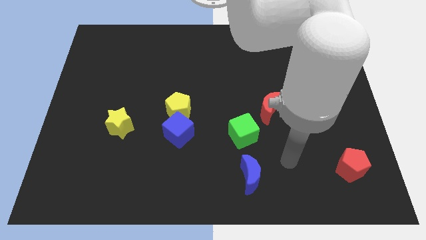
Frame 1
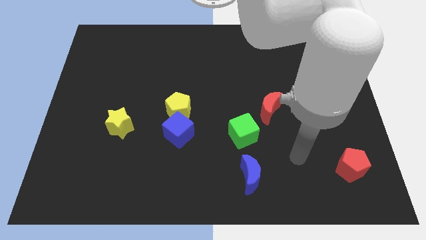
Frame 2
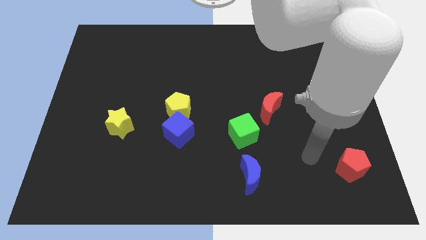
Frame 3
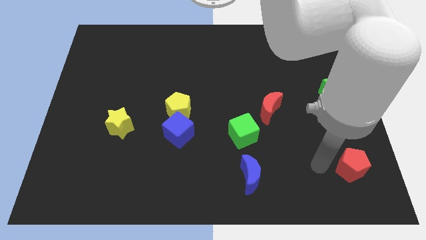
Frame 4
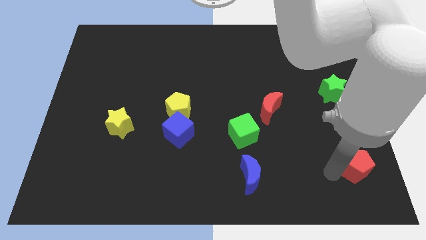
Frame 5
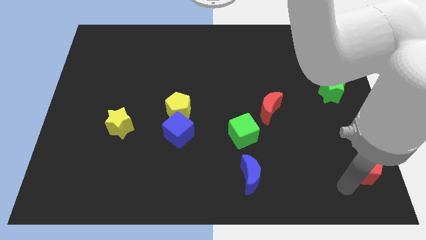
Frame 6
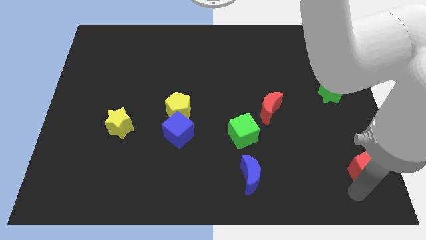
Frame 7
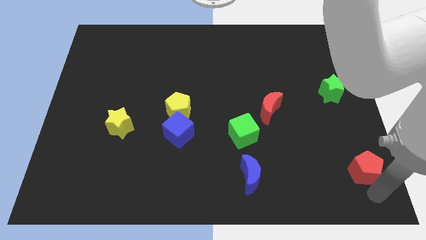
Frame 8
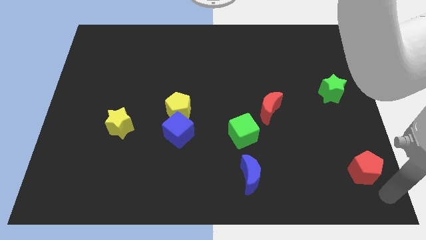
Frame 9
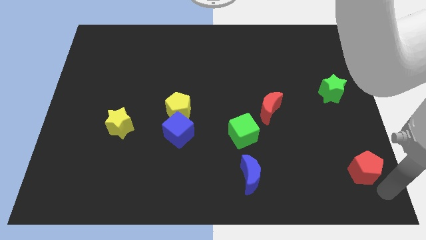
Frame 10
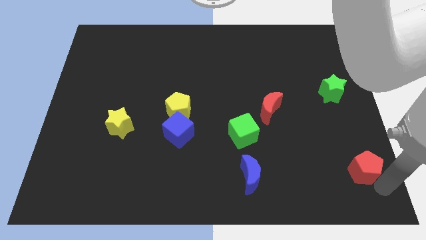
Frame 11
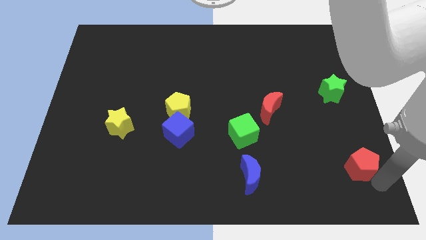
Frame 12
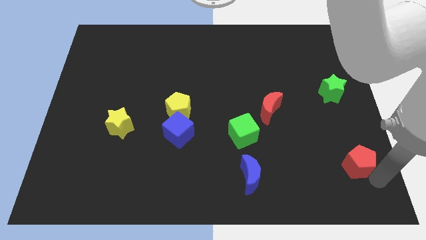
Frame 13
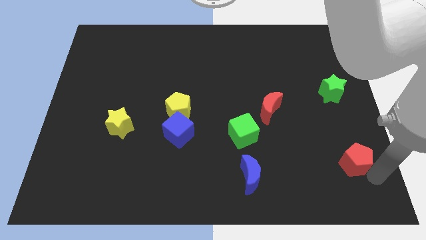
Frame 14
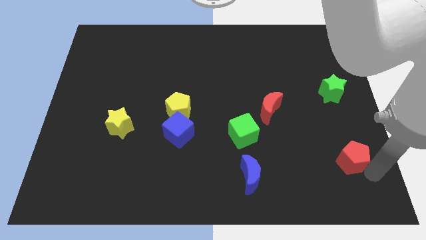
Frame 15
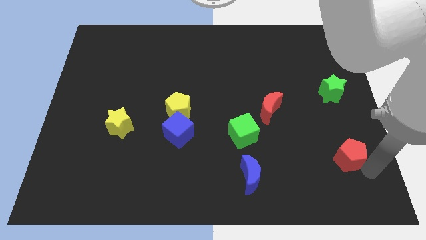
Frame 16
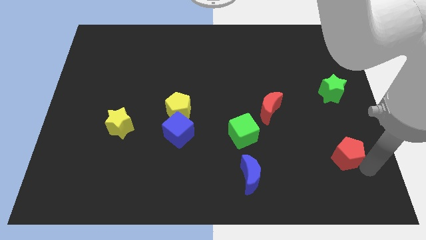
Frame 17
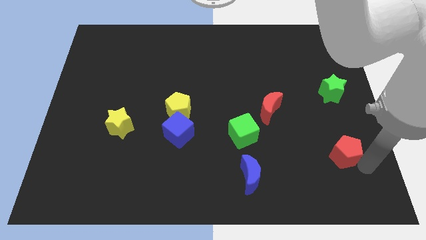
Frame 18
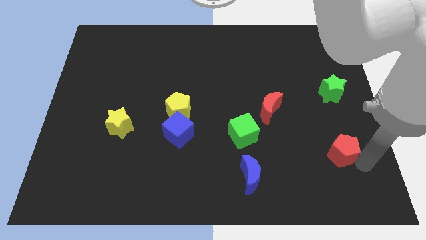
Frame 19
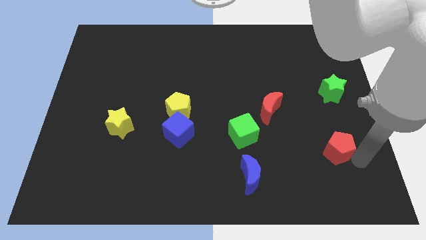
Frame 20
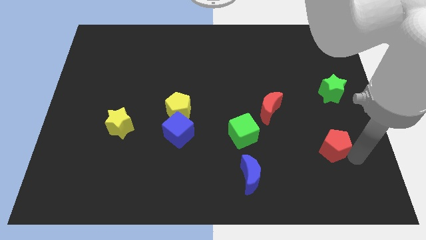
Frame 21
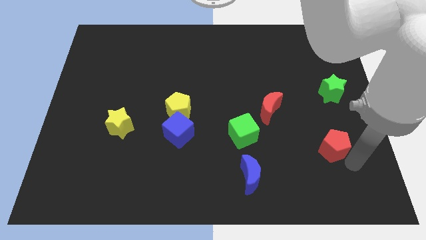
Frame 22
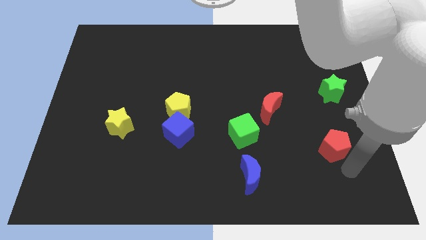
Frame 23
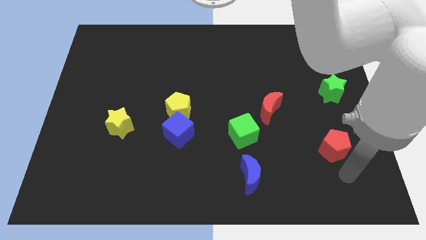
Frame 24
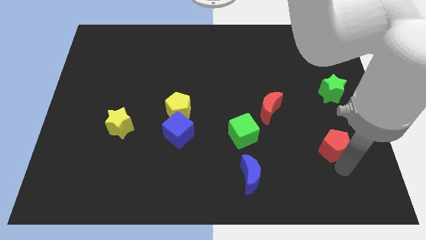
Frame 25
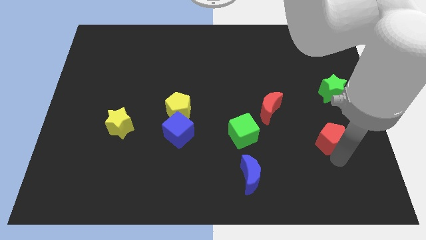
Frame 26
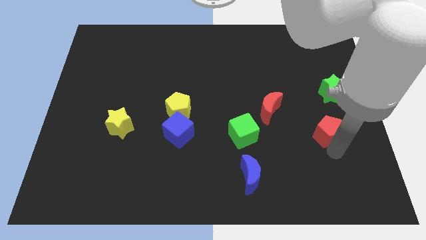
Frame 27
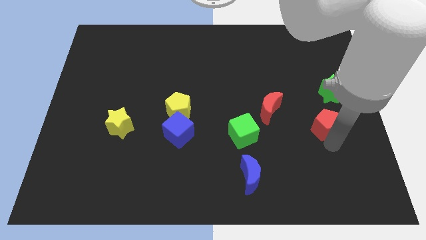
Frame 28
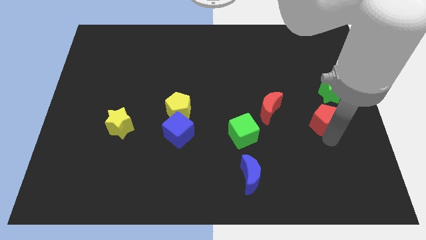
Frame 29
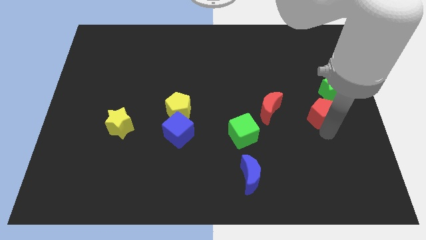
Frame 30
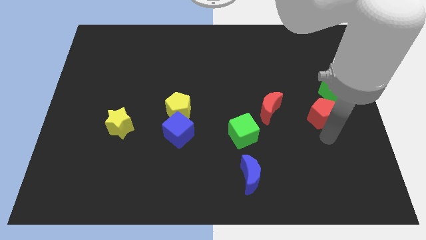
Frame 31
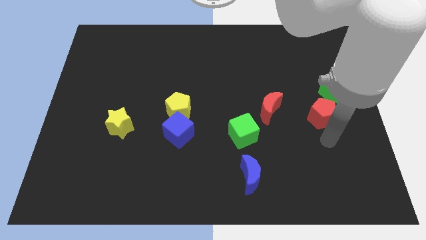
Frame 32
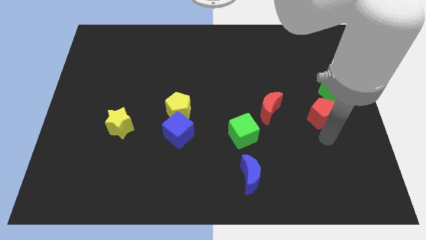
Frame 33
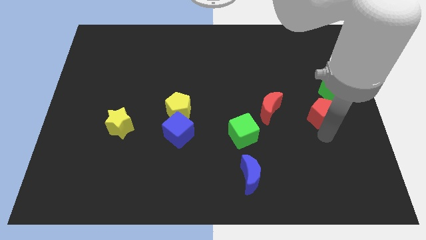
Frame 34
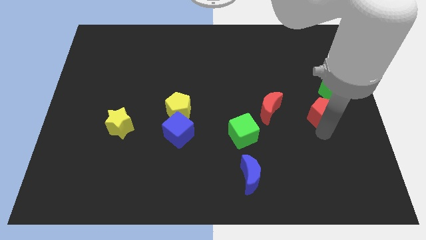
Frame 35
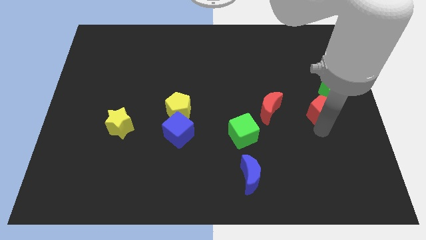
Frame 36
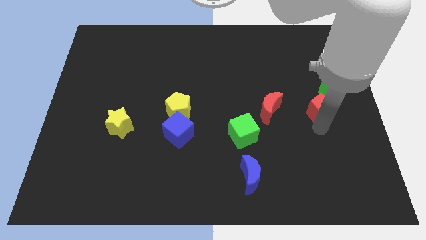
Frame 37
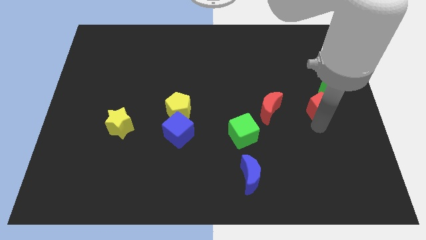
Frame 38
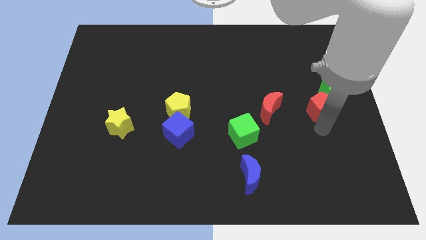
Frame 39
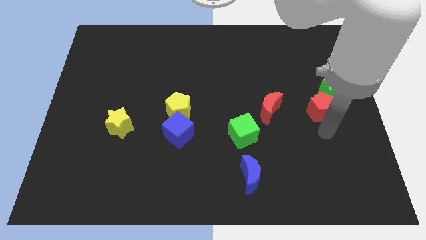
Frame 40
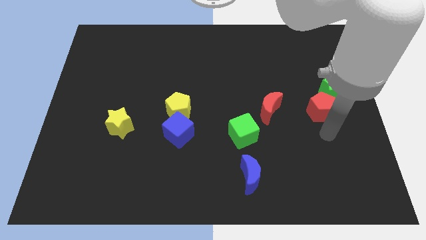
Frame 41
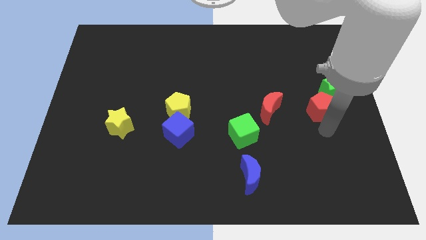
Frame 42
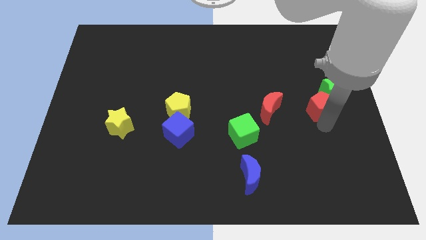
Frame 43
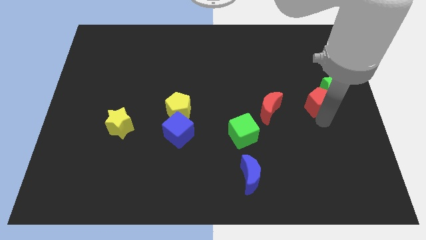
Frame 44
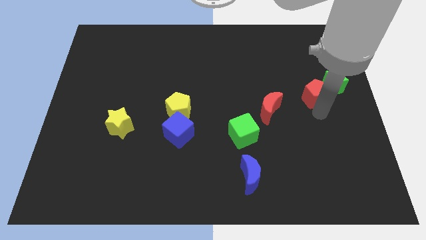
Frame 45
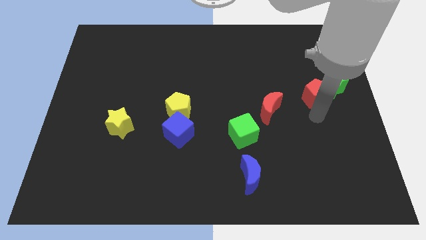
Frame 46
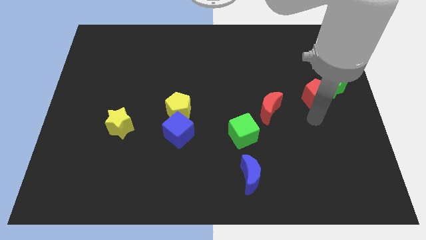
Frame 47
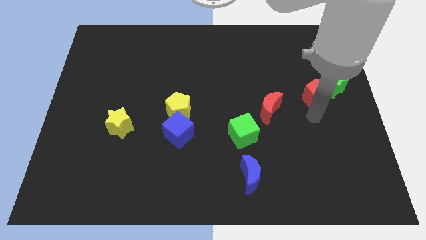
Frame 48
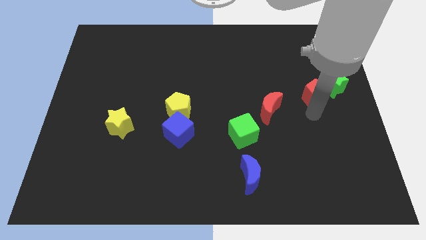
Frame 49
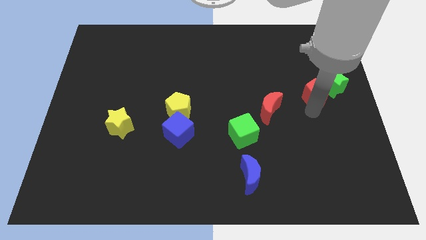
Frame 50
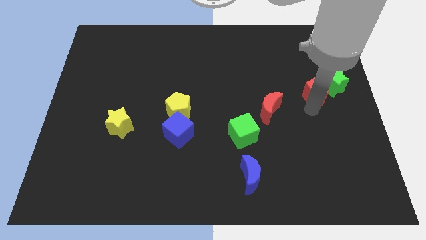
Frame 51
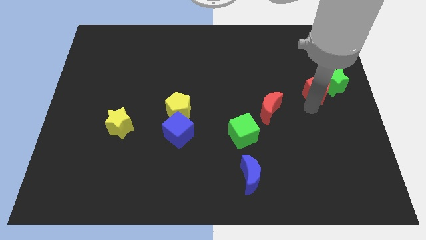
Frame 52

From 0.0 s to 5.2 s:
push the red pentagon up

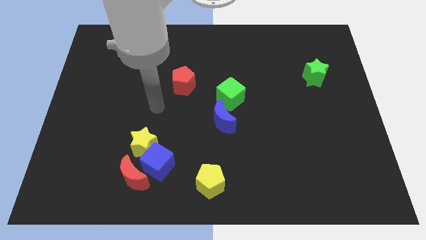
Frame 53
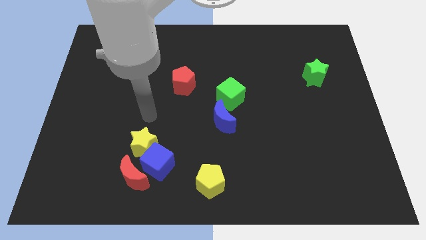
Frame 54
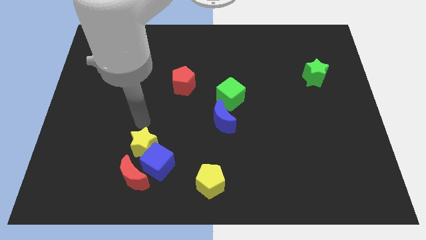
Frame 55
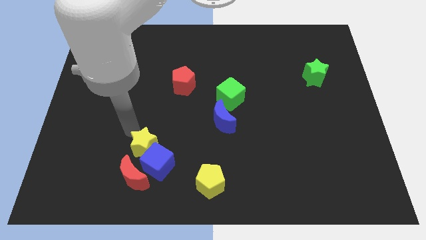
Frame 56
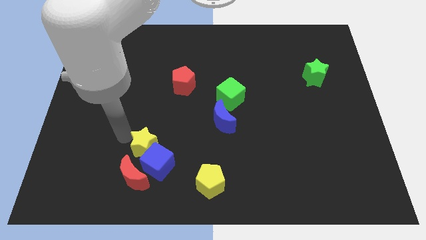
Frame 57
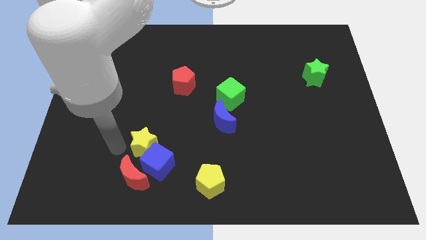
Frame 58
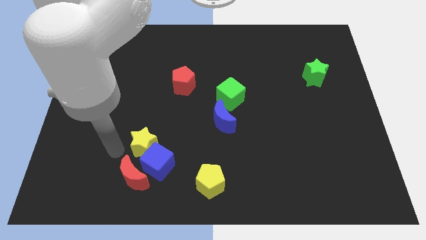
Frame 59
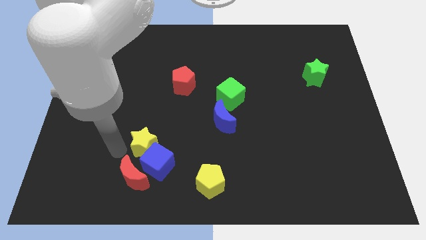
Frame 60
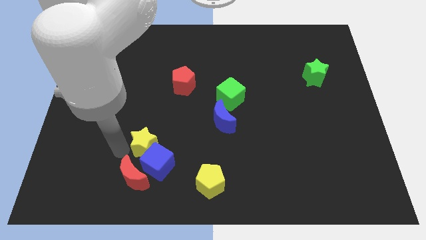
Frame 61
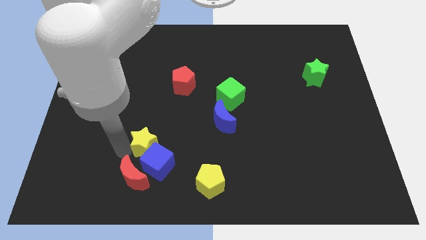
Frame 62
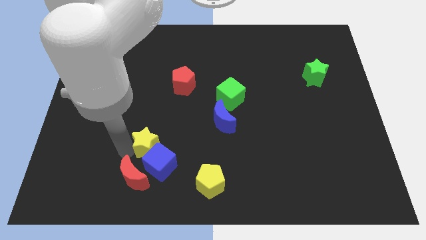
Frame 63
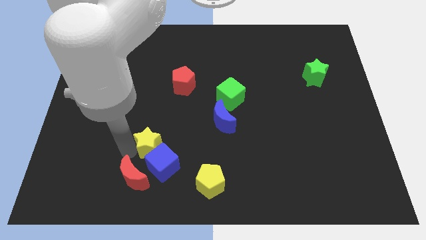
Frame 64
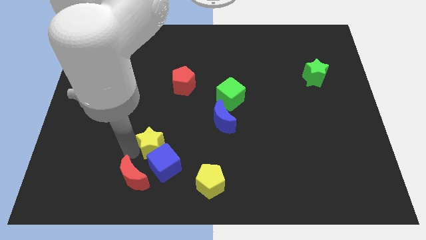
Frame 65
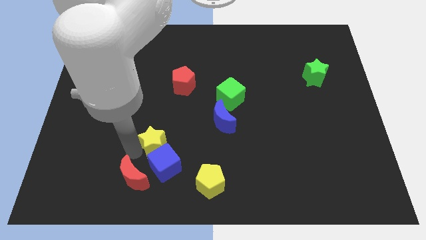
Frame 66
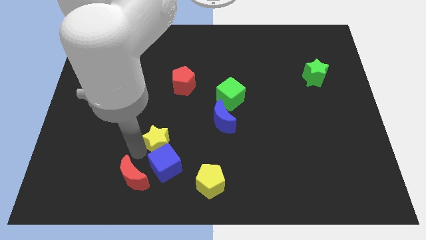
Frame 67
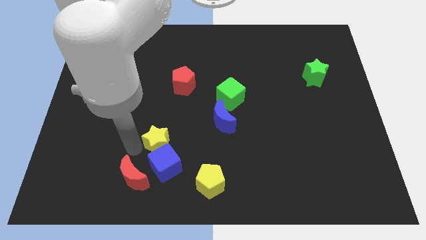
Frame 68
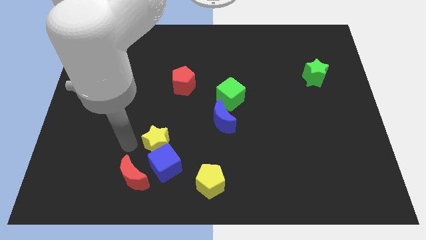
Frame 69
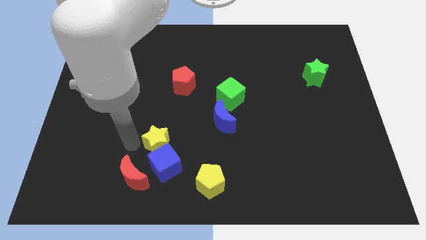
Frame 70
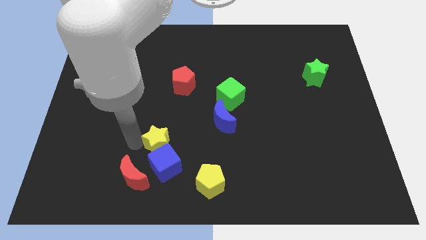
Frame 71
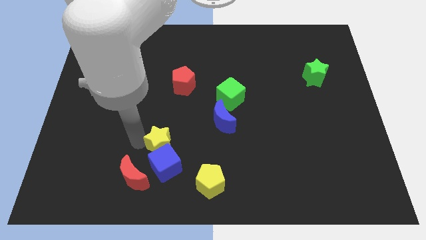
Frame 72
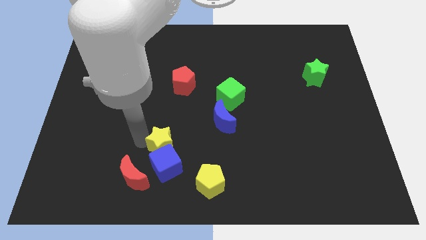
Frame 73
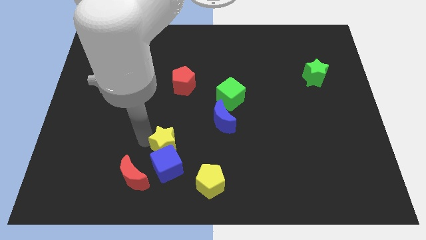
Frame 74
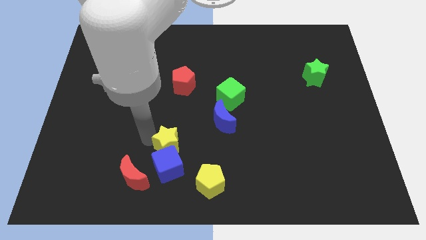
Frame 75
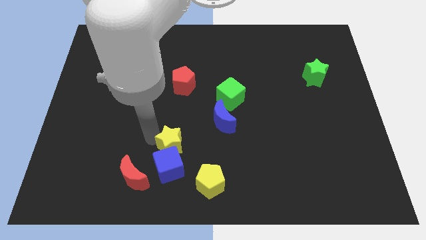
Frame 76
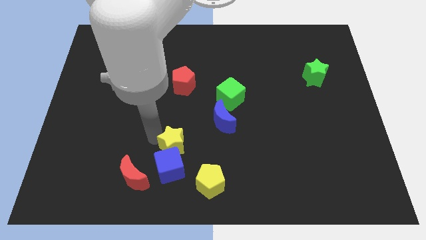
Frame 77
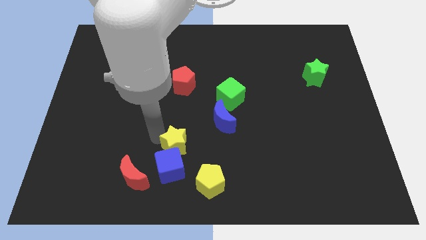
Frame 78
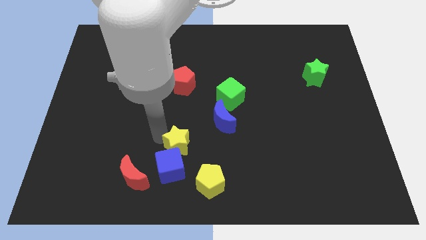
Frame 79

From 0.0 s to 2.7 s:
move the yellow star slightly to the right
